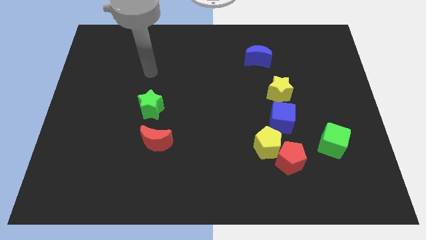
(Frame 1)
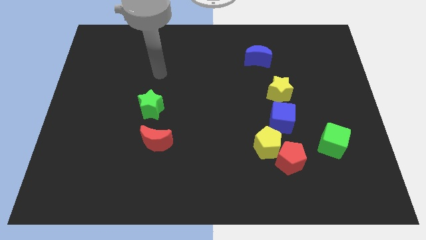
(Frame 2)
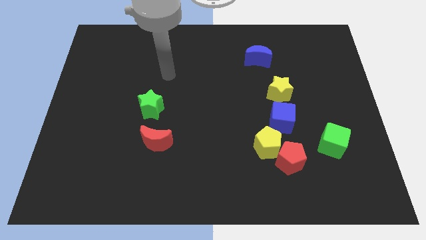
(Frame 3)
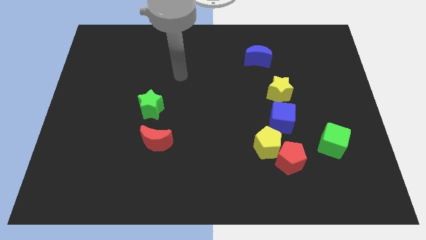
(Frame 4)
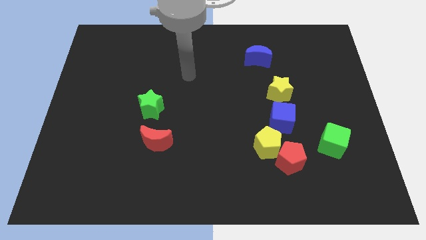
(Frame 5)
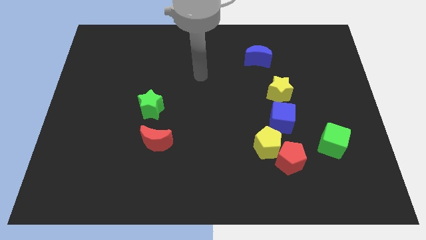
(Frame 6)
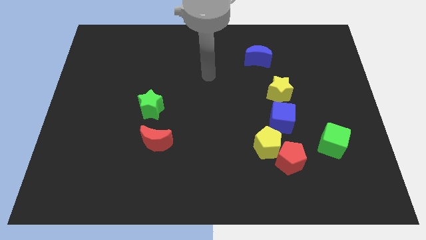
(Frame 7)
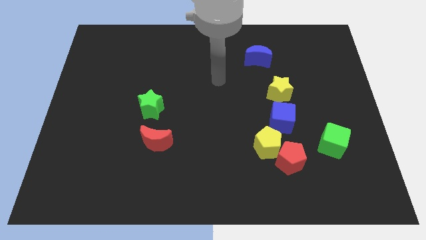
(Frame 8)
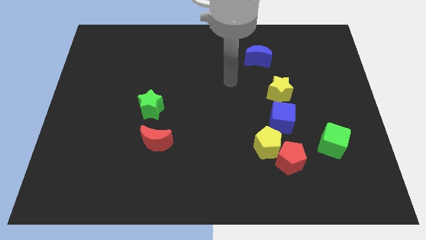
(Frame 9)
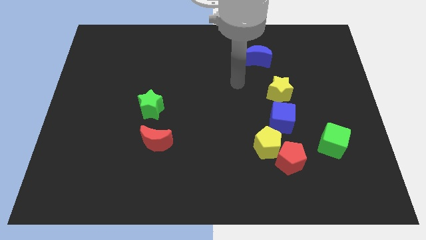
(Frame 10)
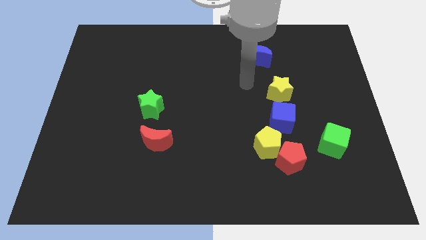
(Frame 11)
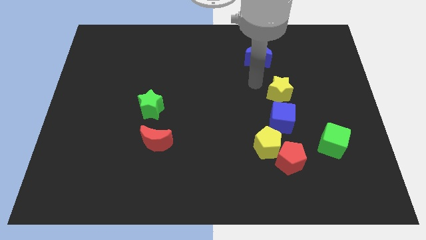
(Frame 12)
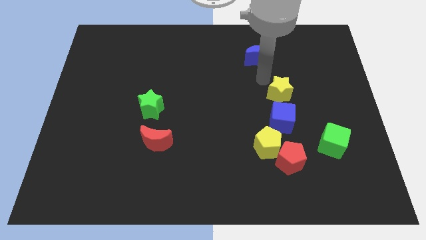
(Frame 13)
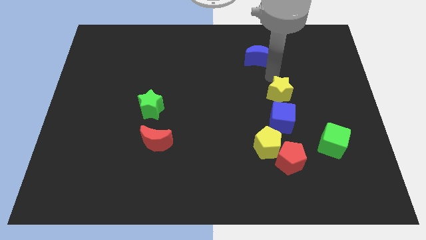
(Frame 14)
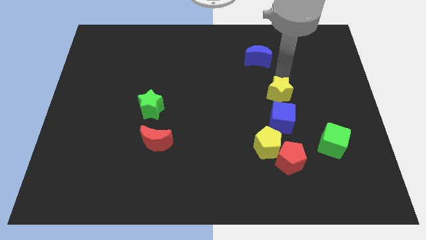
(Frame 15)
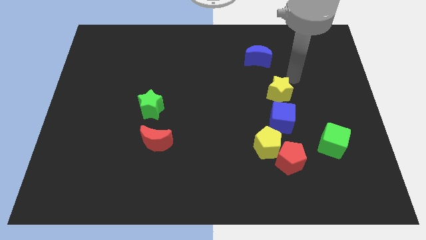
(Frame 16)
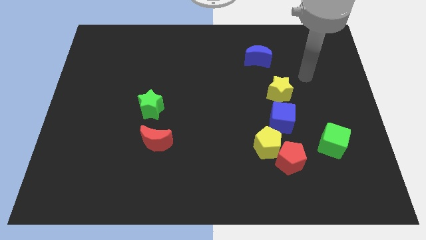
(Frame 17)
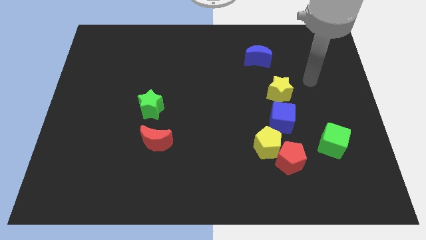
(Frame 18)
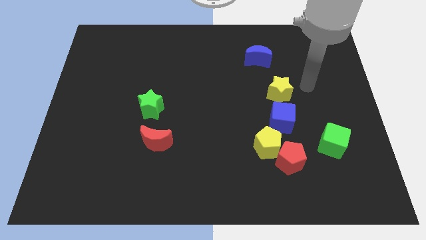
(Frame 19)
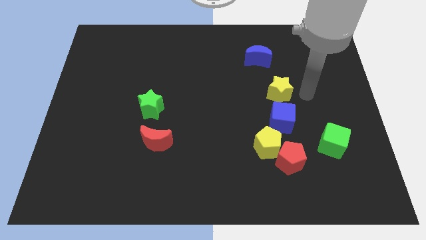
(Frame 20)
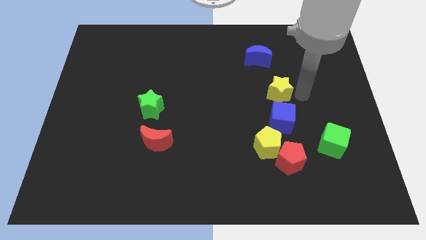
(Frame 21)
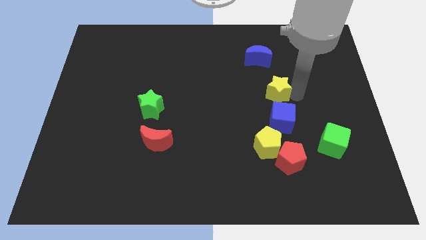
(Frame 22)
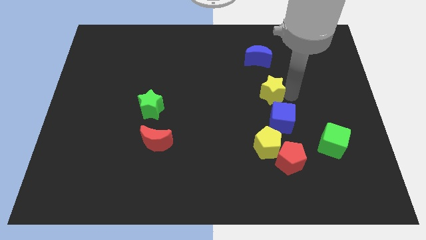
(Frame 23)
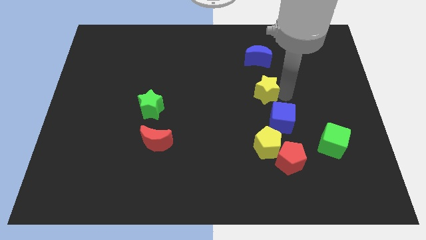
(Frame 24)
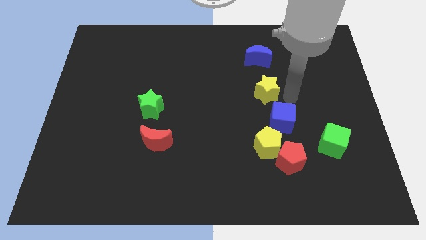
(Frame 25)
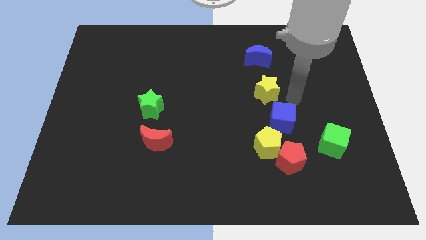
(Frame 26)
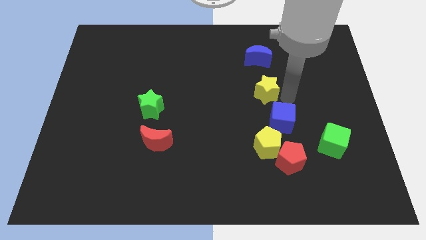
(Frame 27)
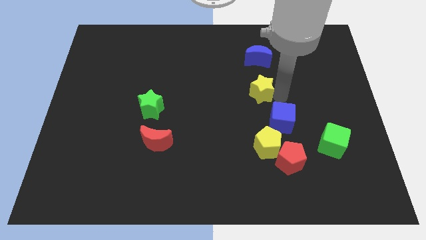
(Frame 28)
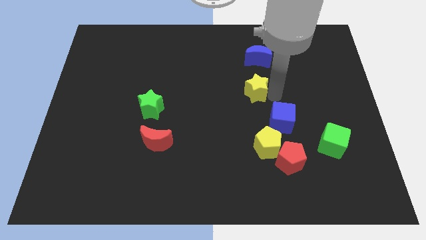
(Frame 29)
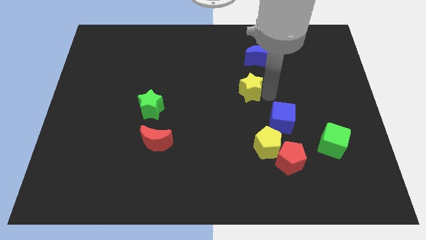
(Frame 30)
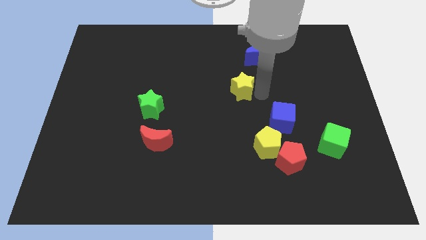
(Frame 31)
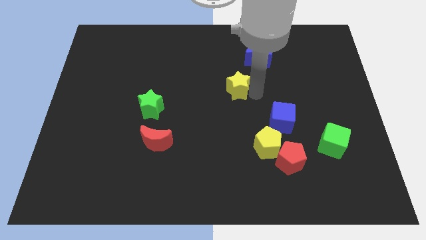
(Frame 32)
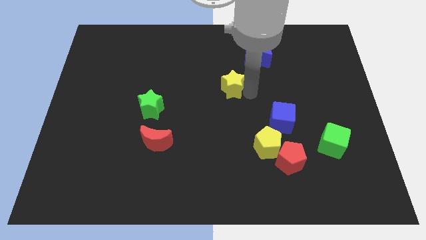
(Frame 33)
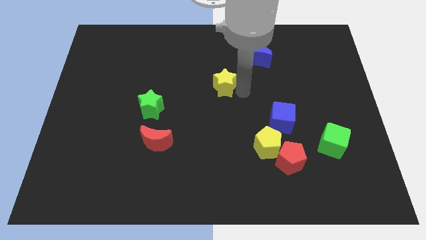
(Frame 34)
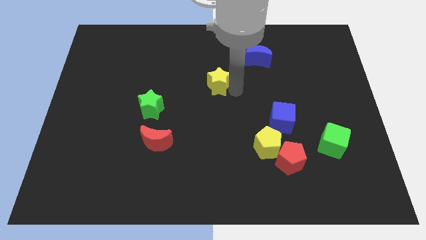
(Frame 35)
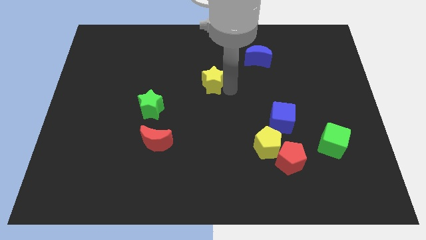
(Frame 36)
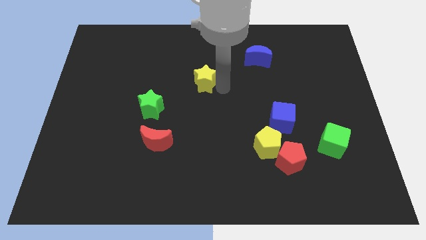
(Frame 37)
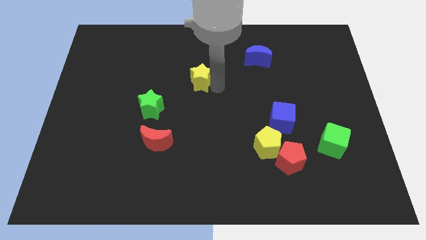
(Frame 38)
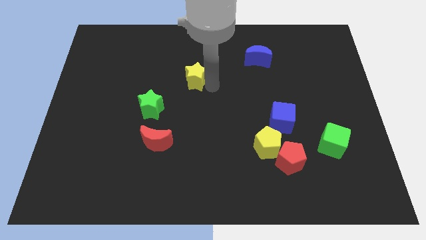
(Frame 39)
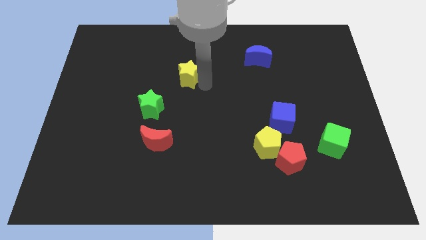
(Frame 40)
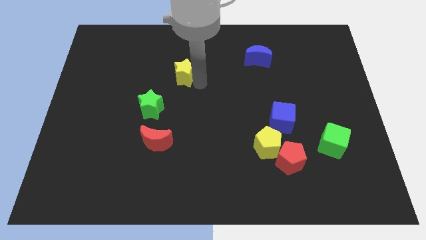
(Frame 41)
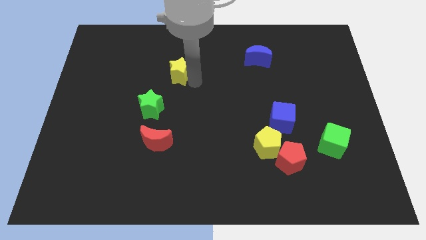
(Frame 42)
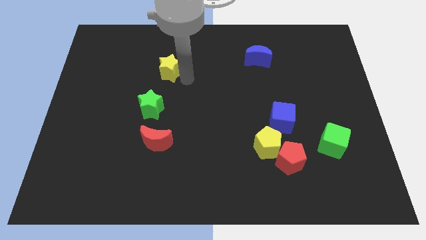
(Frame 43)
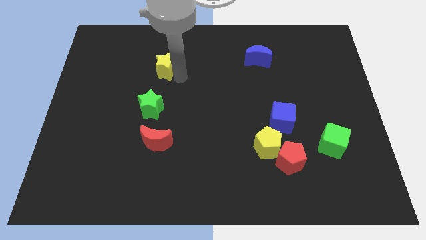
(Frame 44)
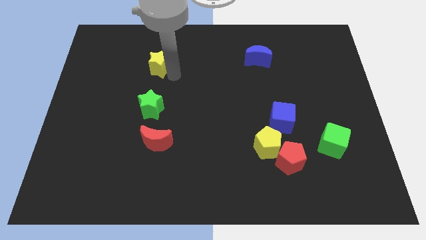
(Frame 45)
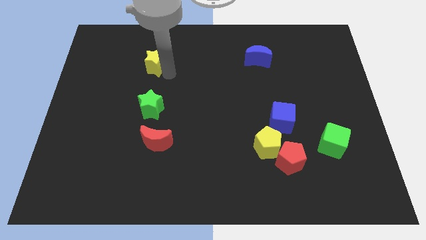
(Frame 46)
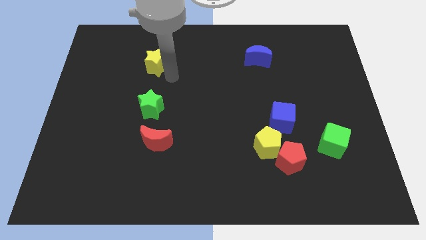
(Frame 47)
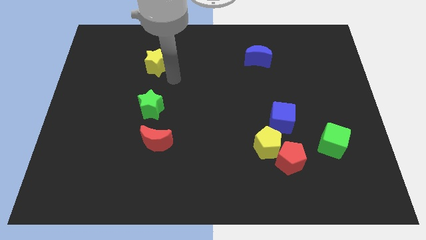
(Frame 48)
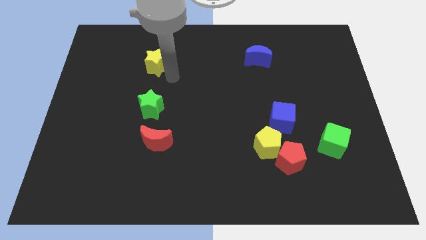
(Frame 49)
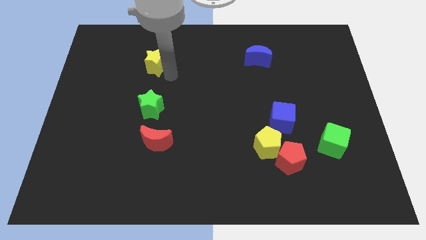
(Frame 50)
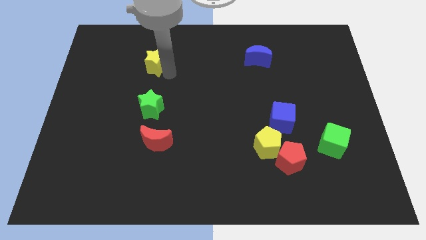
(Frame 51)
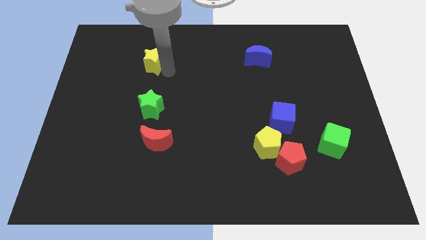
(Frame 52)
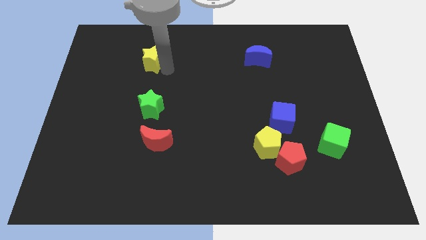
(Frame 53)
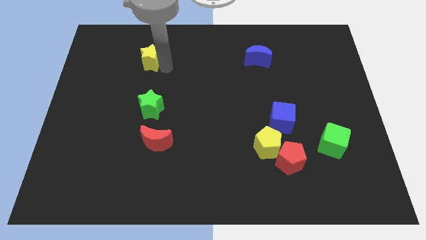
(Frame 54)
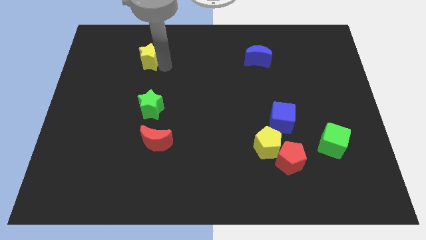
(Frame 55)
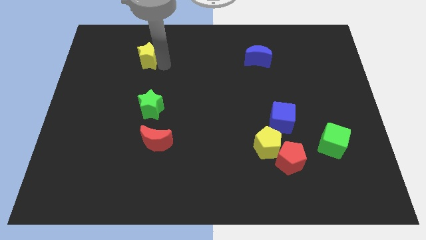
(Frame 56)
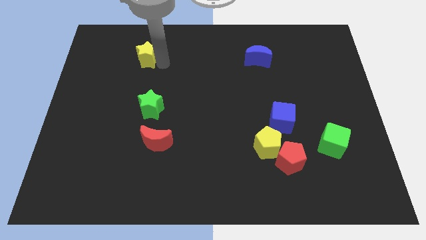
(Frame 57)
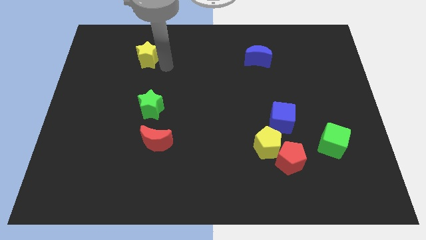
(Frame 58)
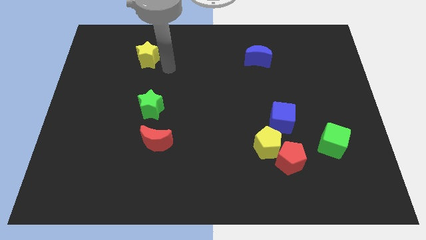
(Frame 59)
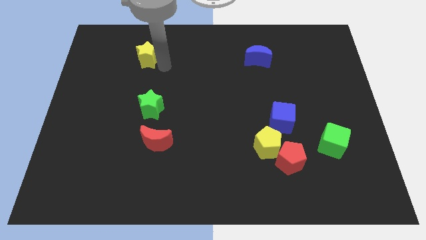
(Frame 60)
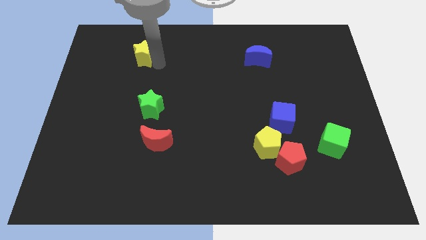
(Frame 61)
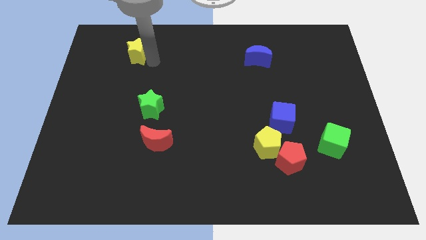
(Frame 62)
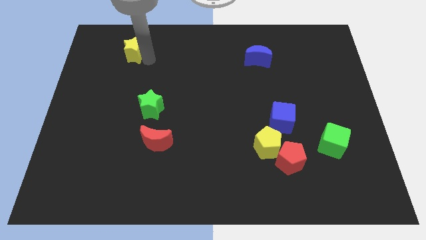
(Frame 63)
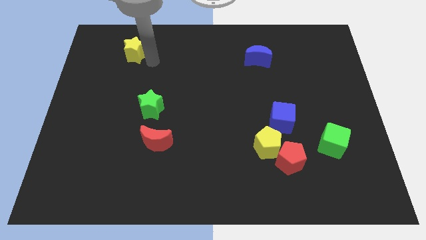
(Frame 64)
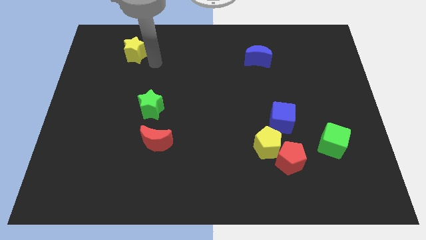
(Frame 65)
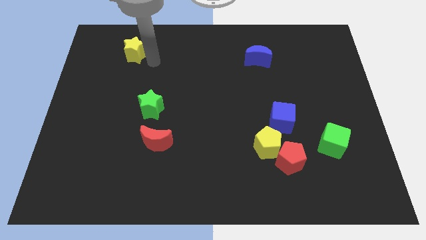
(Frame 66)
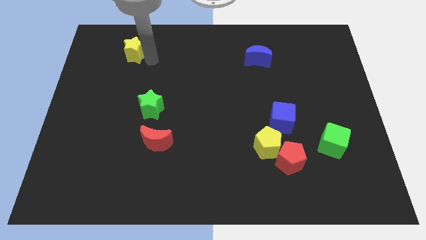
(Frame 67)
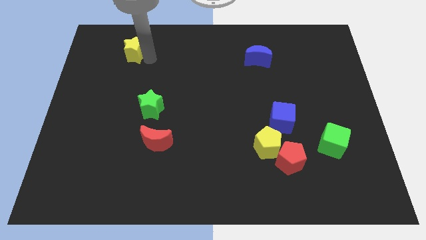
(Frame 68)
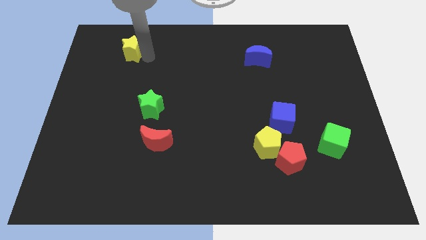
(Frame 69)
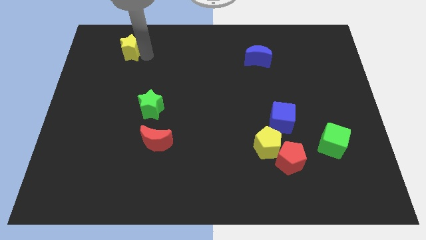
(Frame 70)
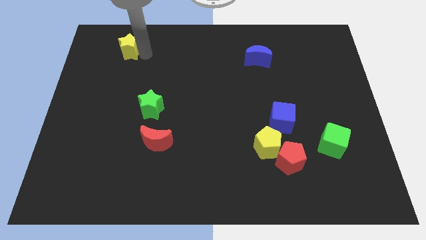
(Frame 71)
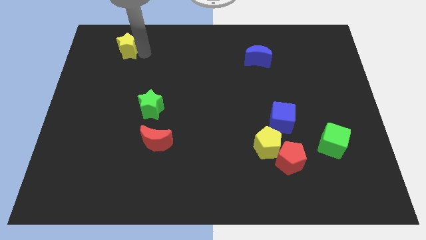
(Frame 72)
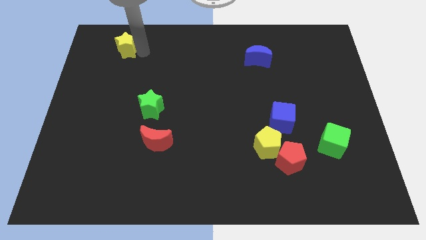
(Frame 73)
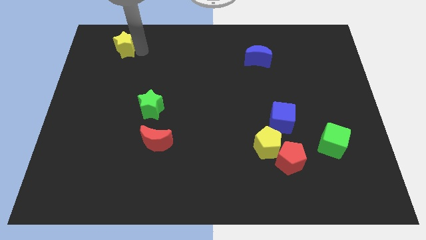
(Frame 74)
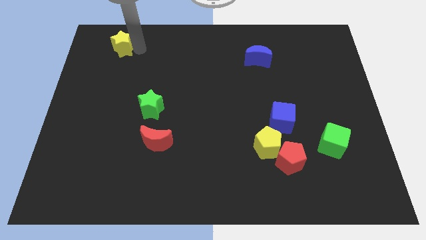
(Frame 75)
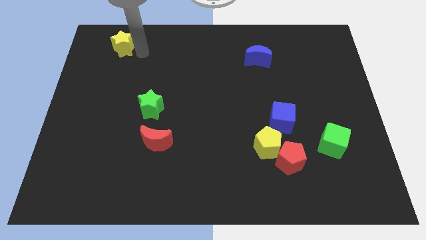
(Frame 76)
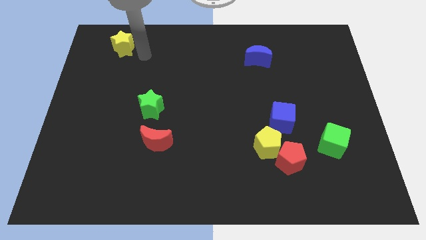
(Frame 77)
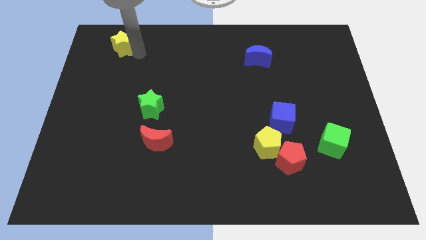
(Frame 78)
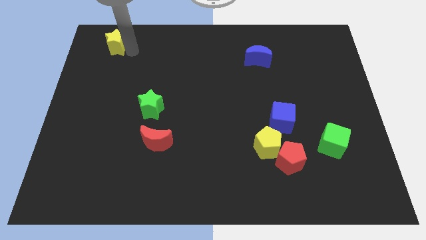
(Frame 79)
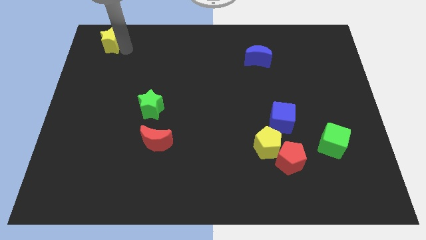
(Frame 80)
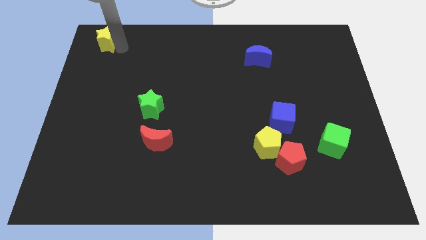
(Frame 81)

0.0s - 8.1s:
push the yellow star to the top left
